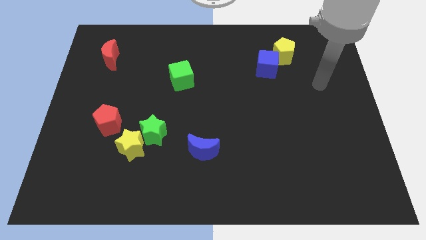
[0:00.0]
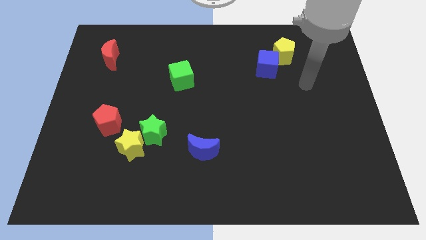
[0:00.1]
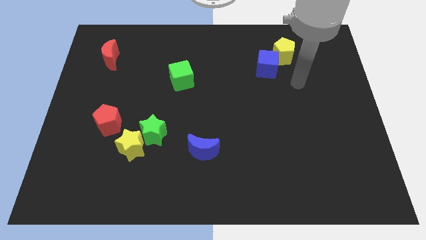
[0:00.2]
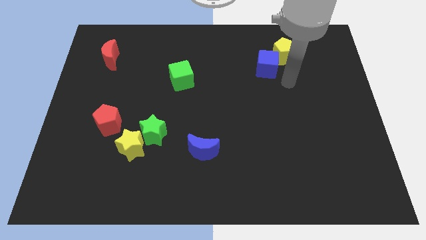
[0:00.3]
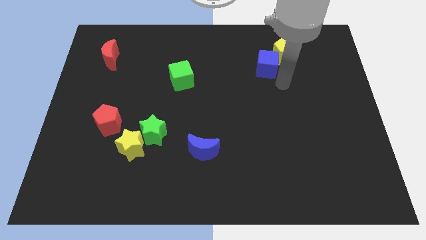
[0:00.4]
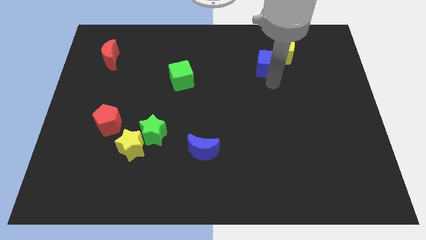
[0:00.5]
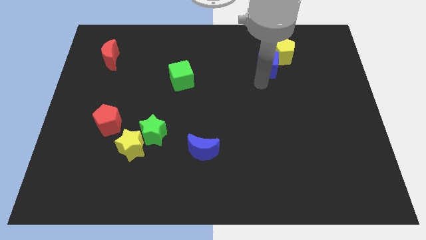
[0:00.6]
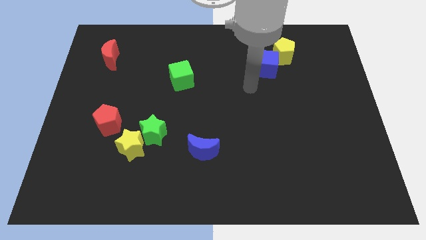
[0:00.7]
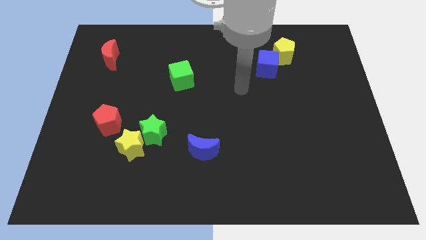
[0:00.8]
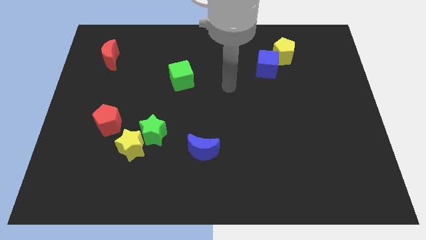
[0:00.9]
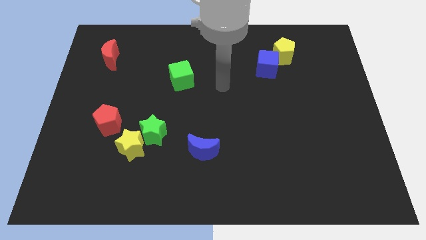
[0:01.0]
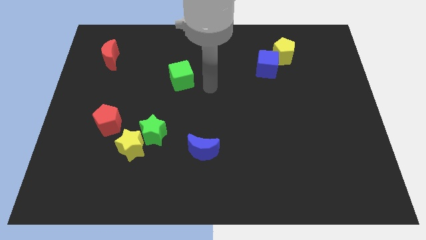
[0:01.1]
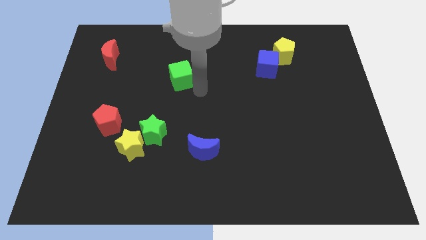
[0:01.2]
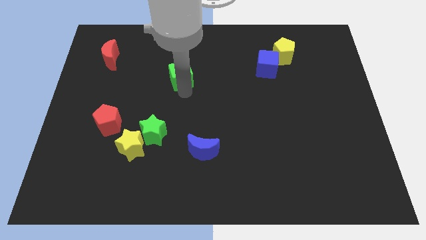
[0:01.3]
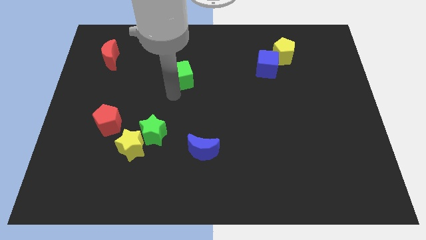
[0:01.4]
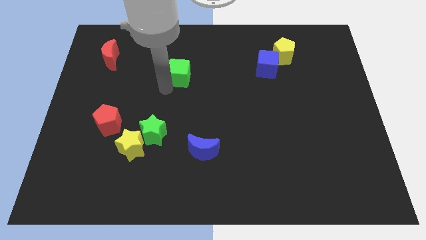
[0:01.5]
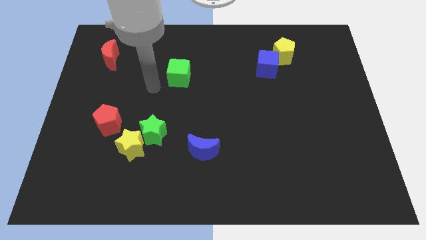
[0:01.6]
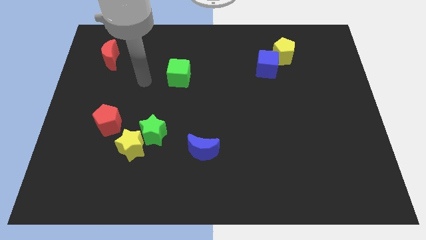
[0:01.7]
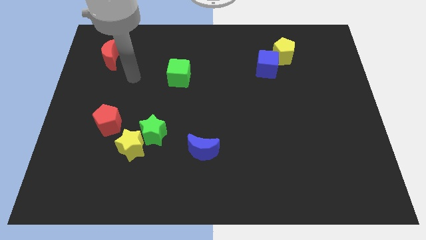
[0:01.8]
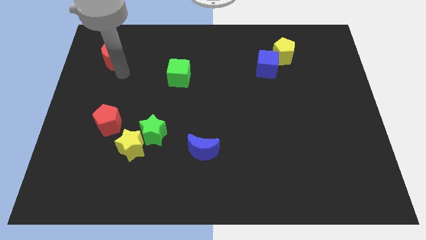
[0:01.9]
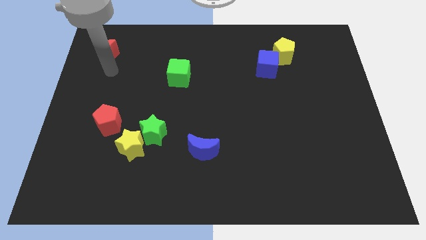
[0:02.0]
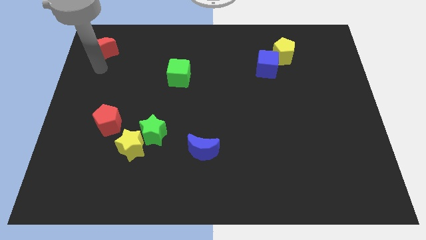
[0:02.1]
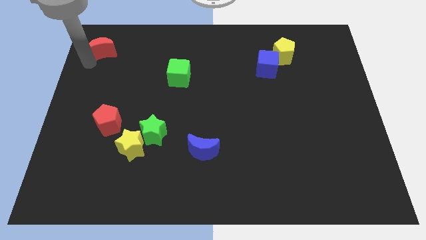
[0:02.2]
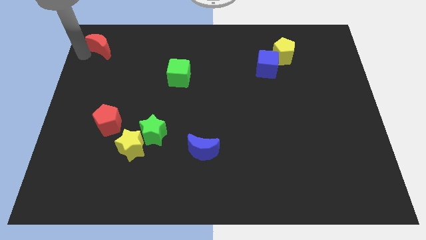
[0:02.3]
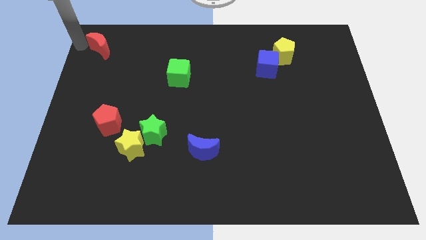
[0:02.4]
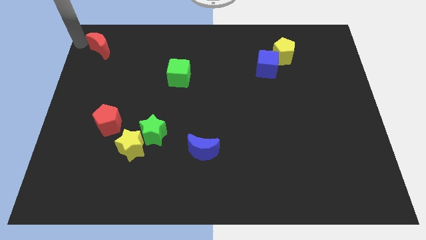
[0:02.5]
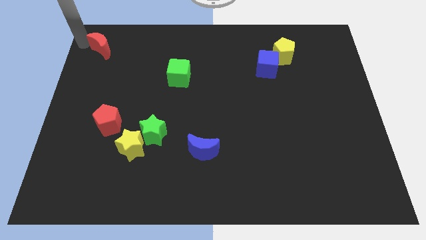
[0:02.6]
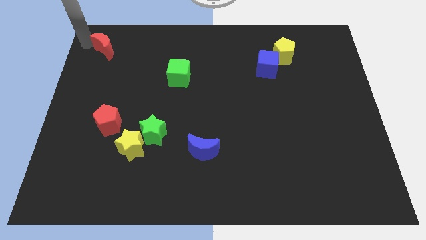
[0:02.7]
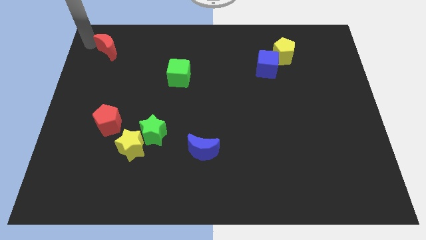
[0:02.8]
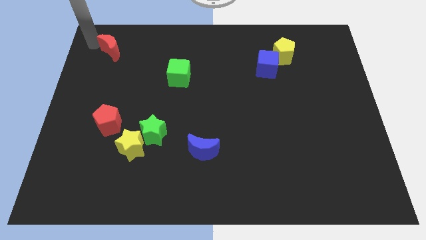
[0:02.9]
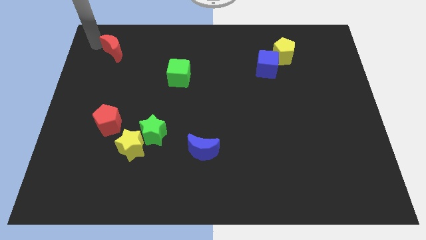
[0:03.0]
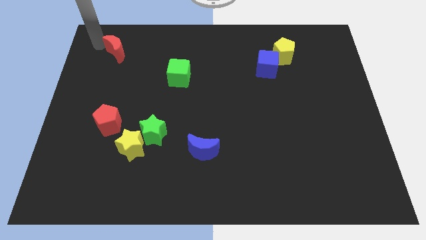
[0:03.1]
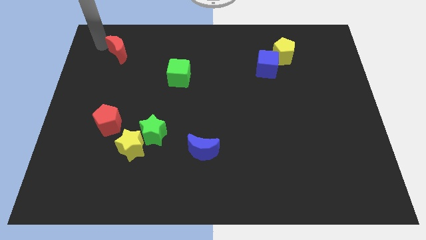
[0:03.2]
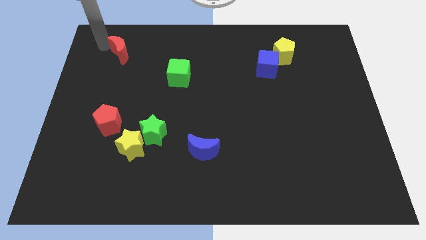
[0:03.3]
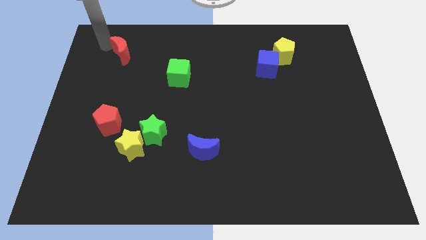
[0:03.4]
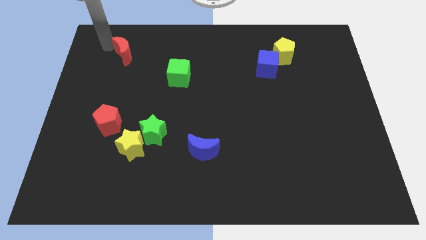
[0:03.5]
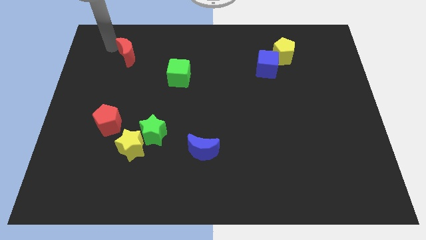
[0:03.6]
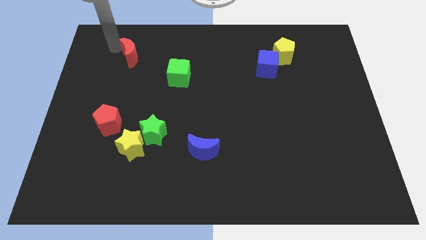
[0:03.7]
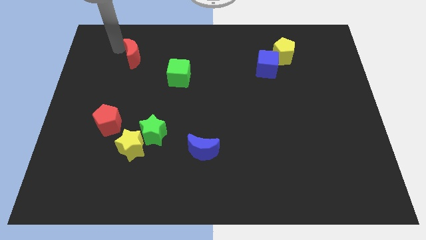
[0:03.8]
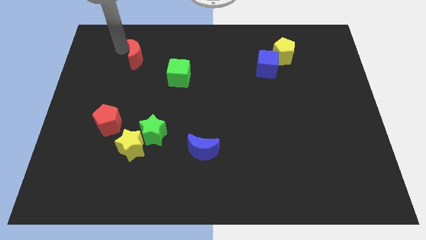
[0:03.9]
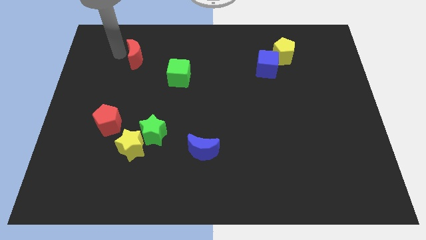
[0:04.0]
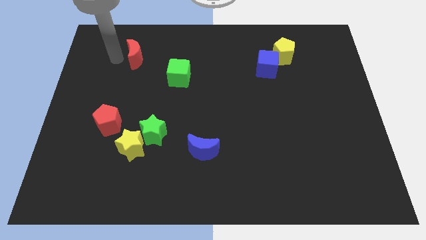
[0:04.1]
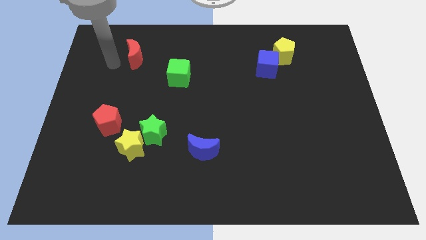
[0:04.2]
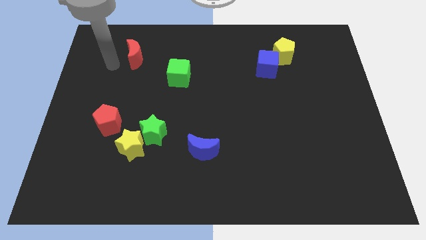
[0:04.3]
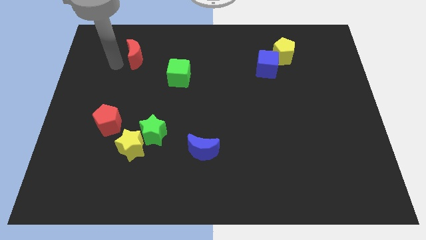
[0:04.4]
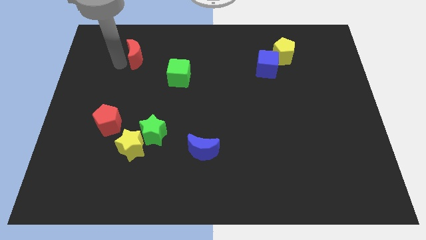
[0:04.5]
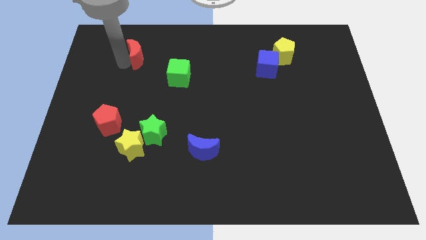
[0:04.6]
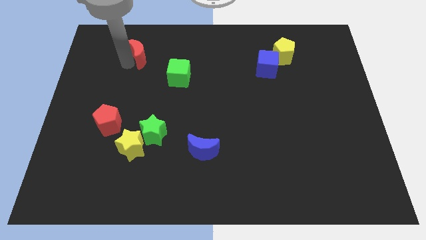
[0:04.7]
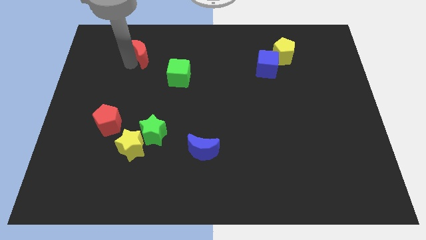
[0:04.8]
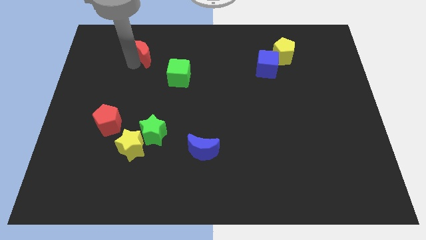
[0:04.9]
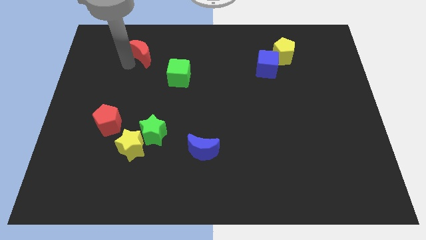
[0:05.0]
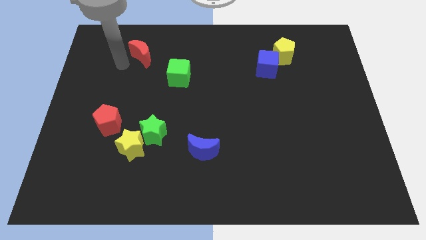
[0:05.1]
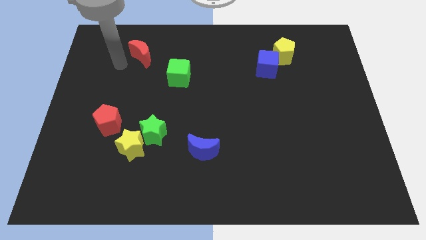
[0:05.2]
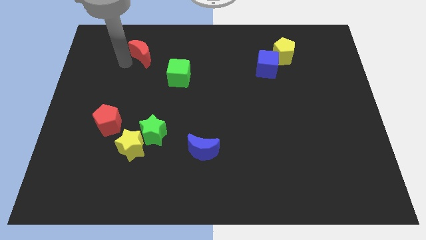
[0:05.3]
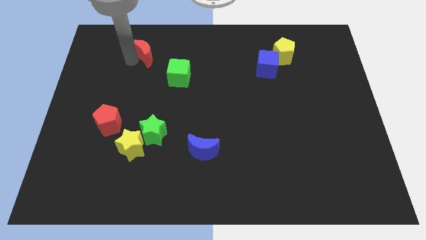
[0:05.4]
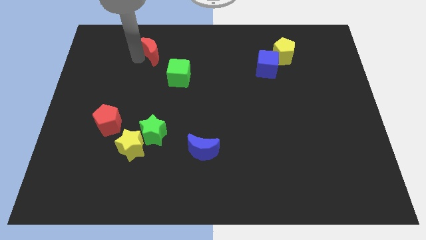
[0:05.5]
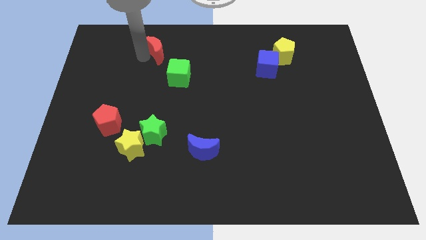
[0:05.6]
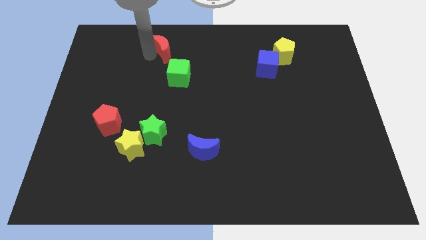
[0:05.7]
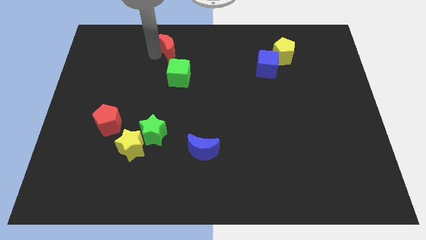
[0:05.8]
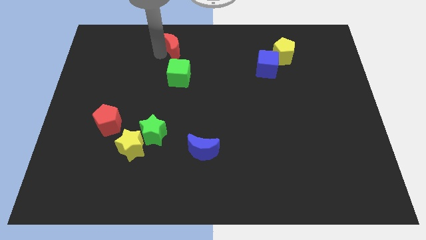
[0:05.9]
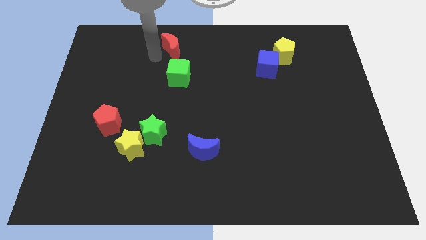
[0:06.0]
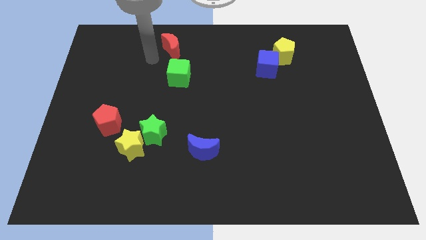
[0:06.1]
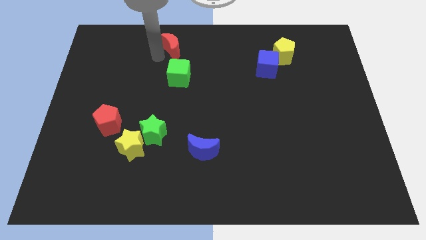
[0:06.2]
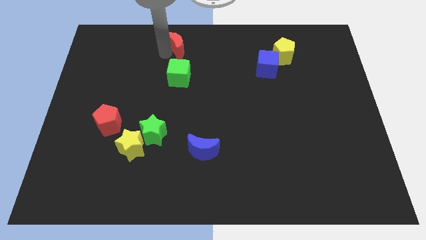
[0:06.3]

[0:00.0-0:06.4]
put the red moon to the top
